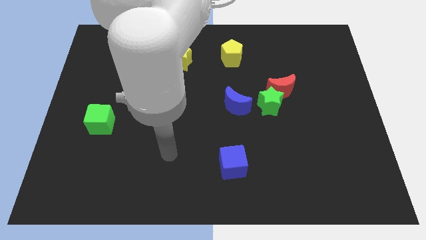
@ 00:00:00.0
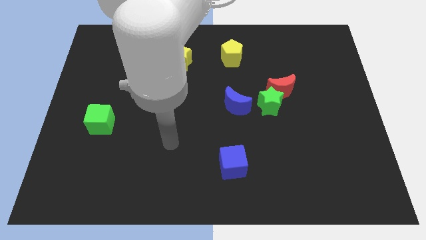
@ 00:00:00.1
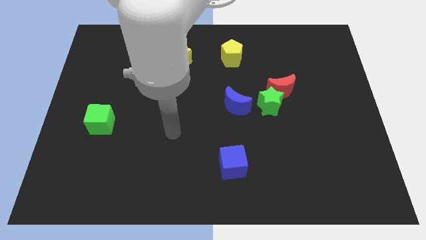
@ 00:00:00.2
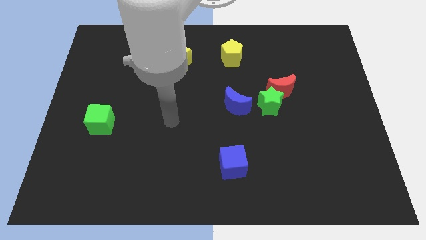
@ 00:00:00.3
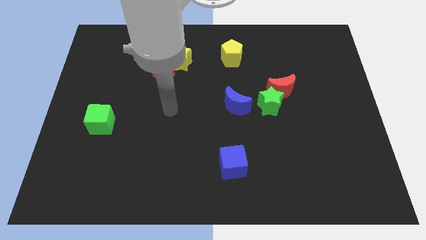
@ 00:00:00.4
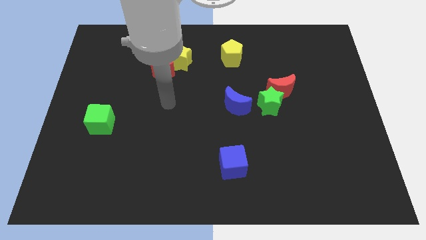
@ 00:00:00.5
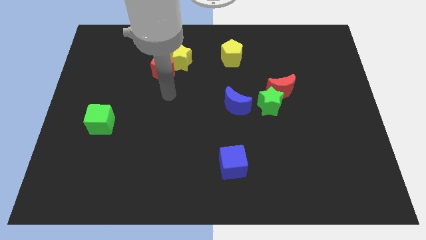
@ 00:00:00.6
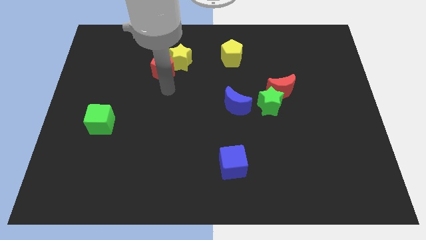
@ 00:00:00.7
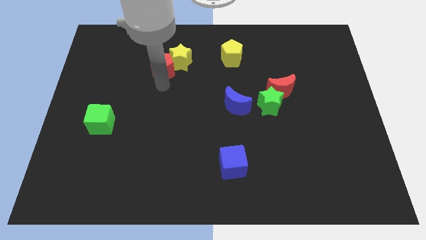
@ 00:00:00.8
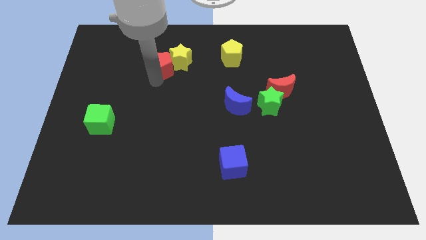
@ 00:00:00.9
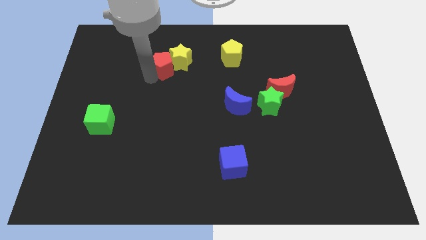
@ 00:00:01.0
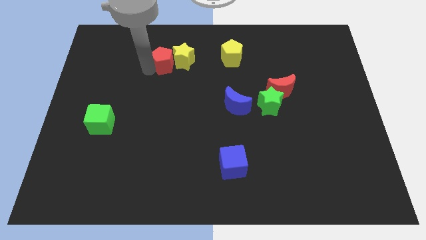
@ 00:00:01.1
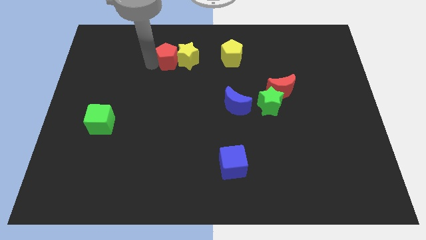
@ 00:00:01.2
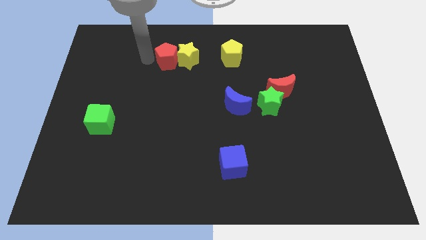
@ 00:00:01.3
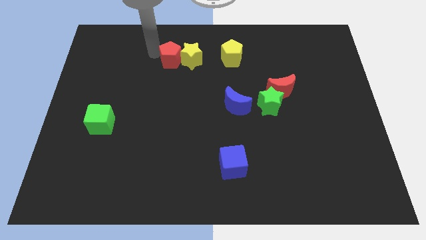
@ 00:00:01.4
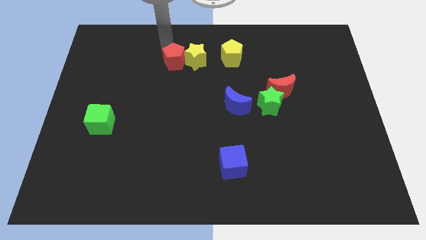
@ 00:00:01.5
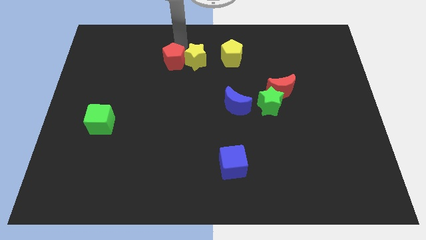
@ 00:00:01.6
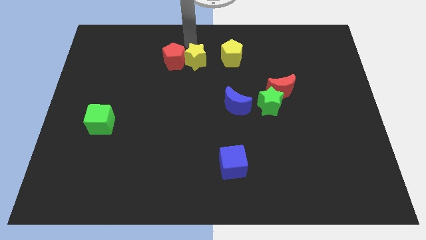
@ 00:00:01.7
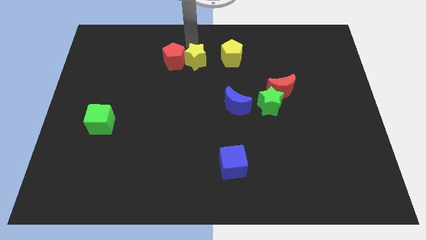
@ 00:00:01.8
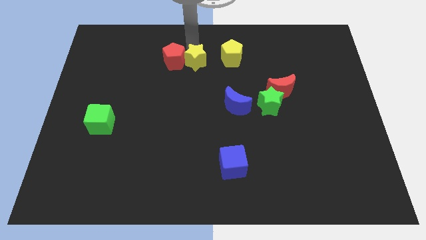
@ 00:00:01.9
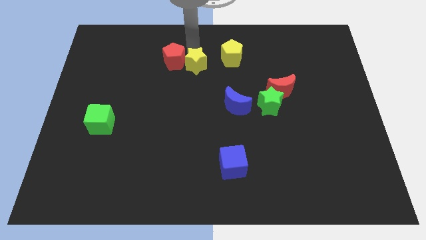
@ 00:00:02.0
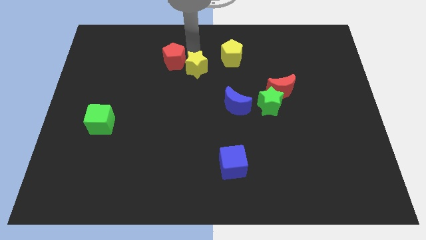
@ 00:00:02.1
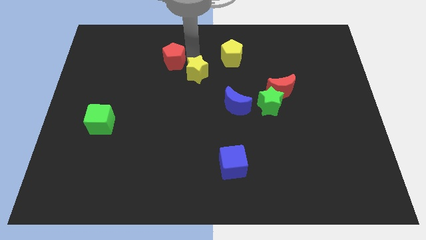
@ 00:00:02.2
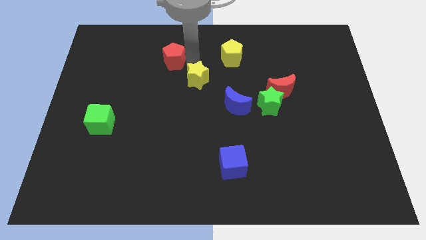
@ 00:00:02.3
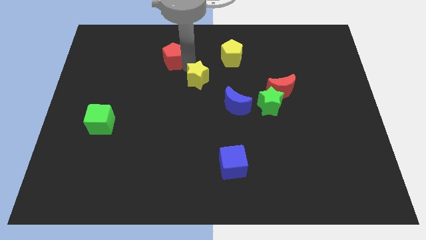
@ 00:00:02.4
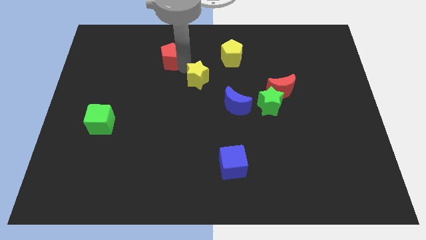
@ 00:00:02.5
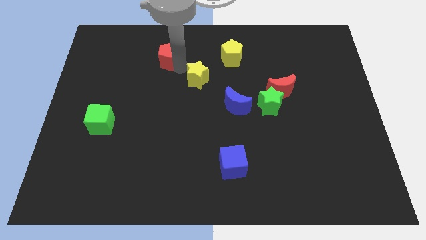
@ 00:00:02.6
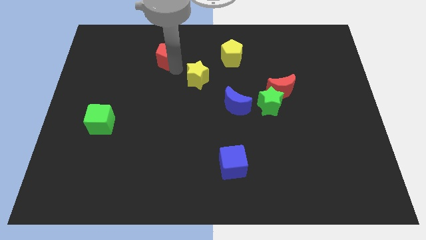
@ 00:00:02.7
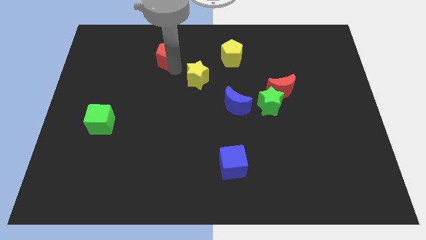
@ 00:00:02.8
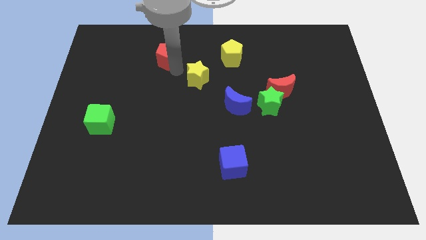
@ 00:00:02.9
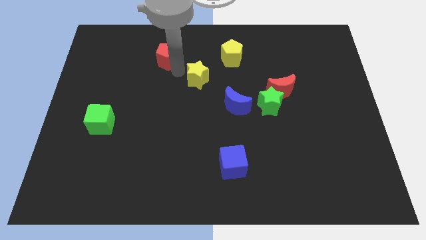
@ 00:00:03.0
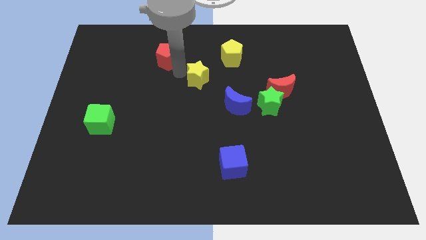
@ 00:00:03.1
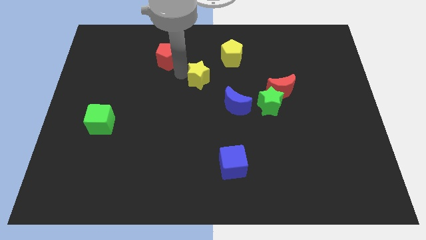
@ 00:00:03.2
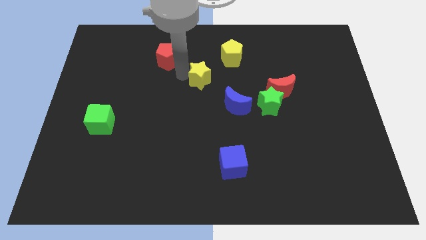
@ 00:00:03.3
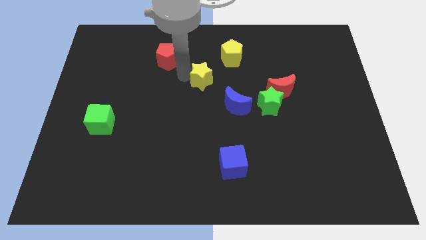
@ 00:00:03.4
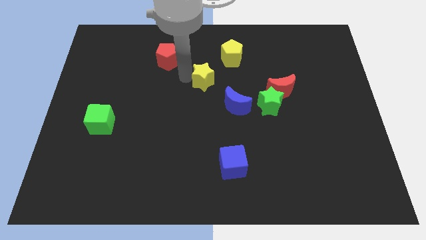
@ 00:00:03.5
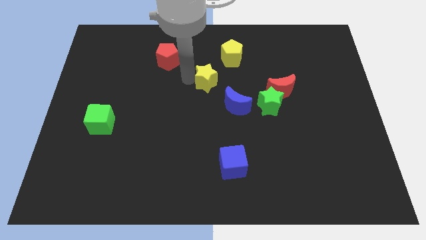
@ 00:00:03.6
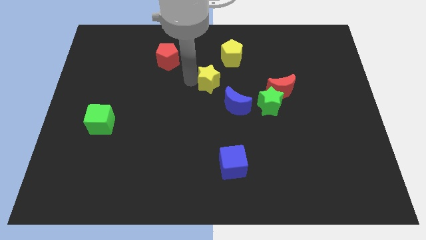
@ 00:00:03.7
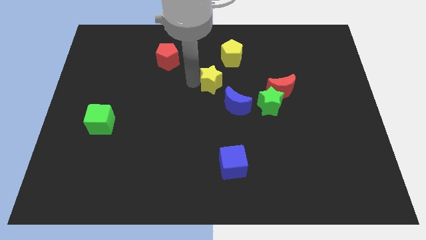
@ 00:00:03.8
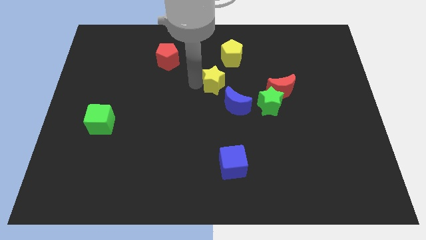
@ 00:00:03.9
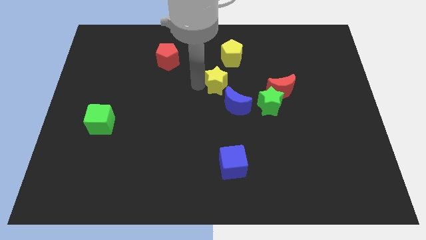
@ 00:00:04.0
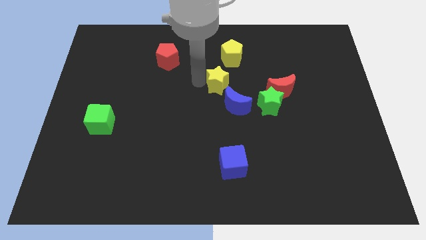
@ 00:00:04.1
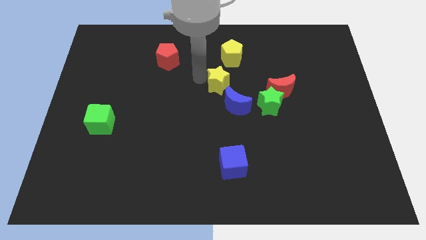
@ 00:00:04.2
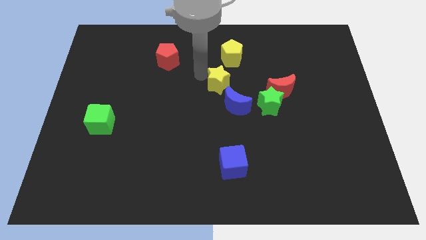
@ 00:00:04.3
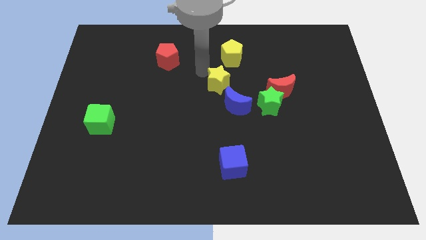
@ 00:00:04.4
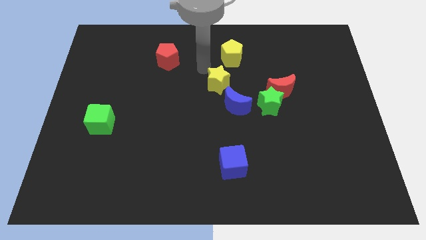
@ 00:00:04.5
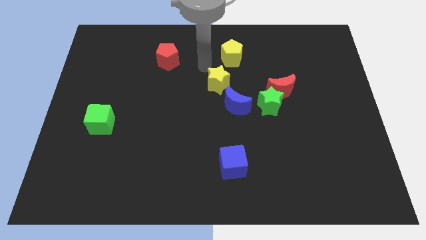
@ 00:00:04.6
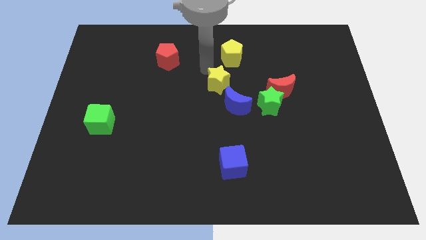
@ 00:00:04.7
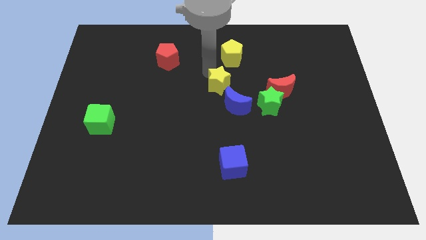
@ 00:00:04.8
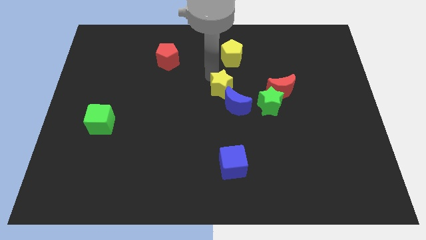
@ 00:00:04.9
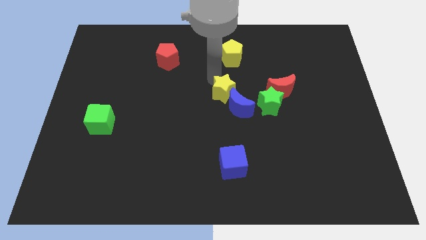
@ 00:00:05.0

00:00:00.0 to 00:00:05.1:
put the yellow star close to the blue moon

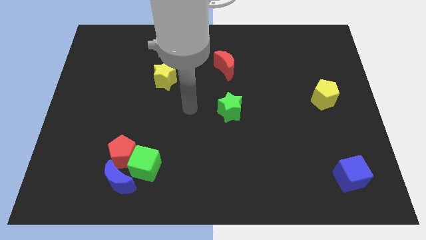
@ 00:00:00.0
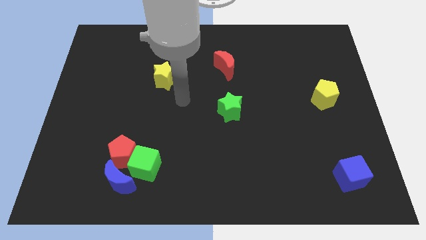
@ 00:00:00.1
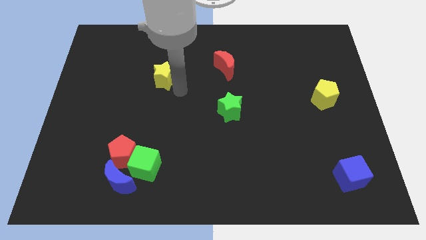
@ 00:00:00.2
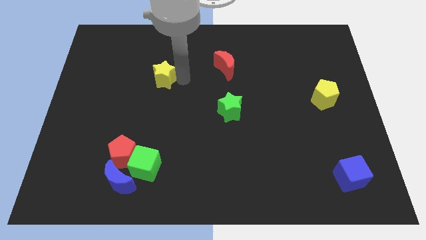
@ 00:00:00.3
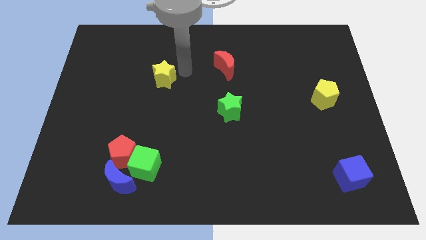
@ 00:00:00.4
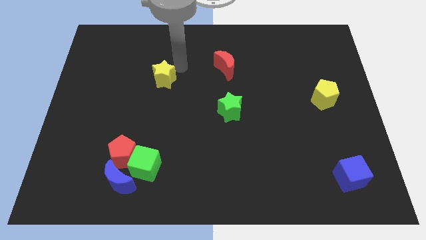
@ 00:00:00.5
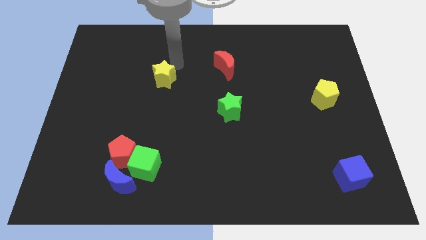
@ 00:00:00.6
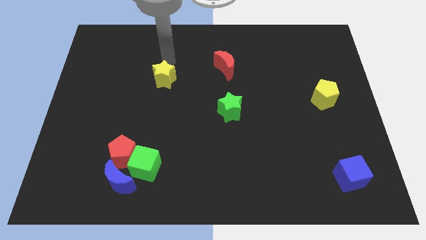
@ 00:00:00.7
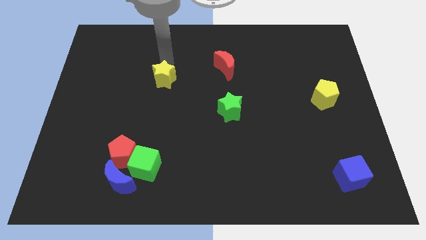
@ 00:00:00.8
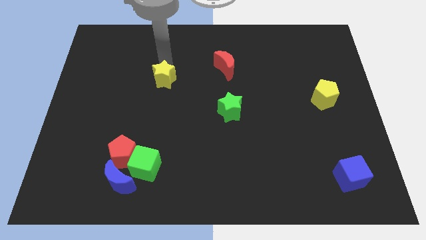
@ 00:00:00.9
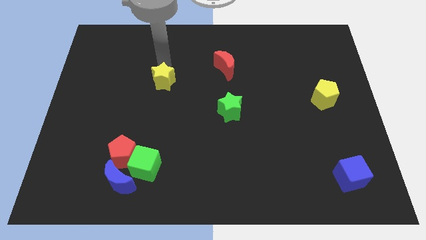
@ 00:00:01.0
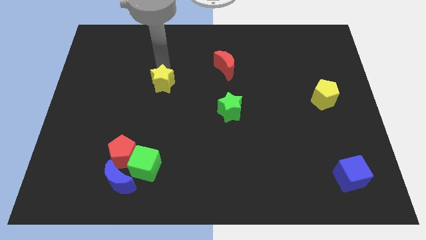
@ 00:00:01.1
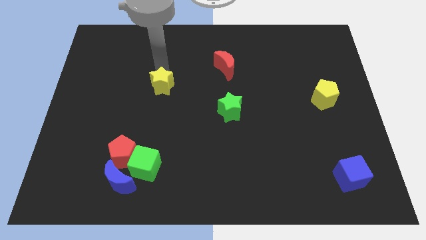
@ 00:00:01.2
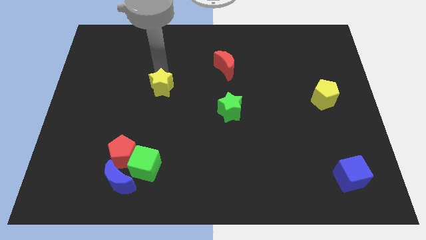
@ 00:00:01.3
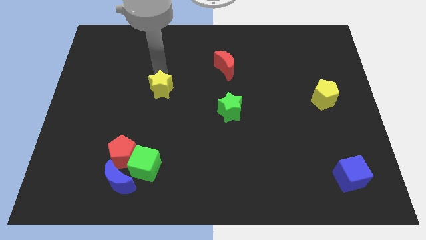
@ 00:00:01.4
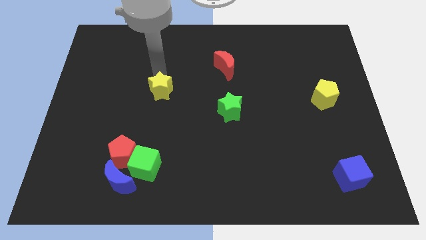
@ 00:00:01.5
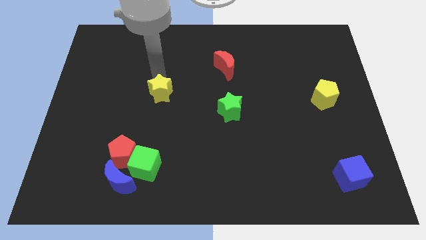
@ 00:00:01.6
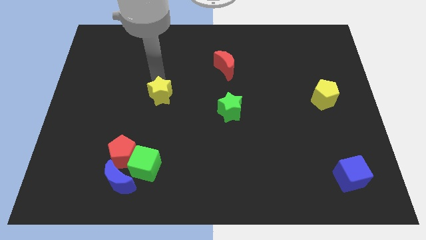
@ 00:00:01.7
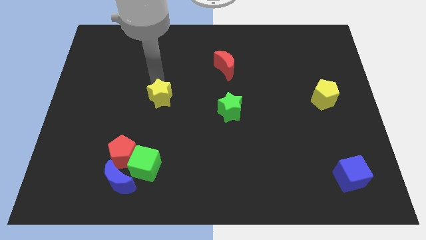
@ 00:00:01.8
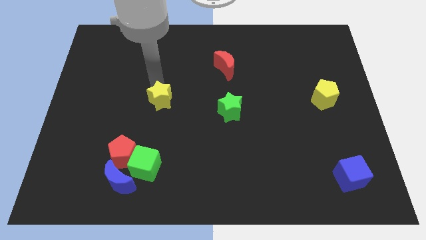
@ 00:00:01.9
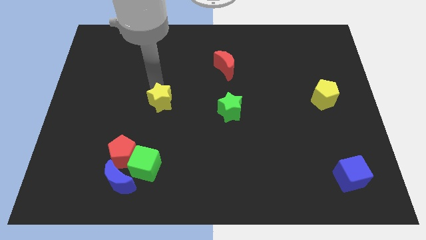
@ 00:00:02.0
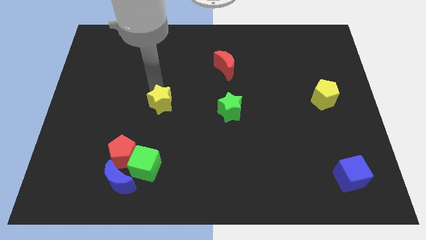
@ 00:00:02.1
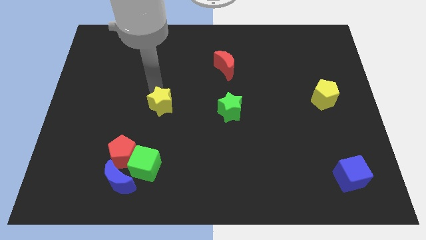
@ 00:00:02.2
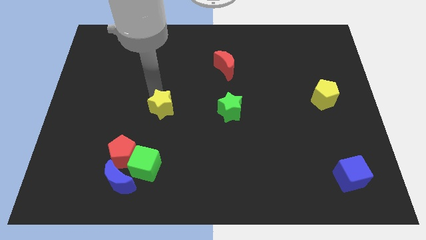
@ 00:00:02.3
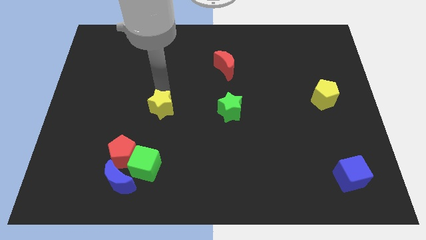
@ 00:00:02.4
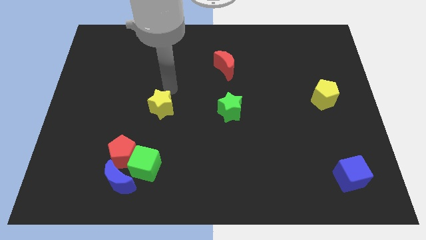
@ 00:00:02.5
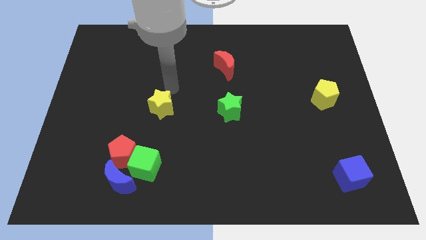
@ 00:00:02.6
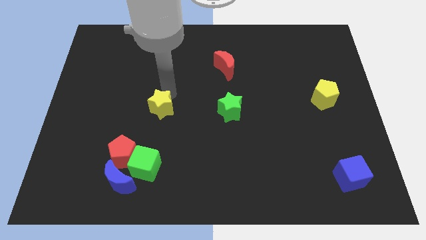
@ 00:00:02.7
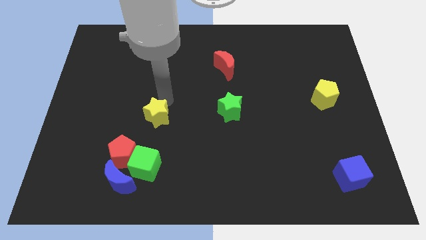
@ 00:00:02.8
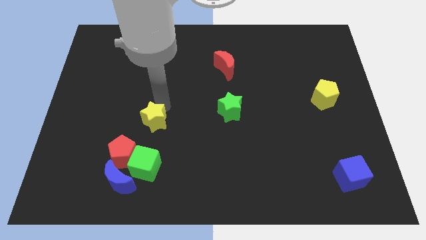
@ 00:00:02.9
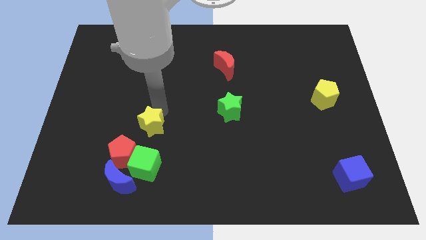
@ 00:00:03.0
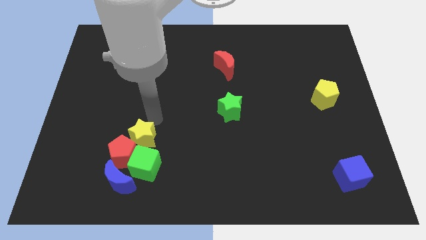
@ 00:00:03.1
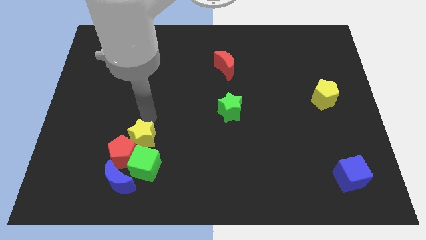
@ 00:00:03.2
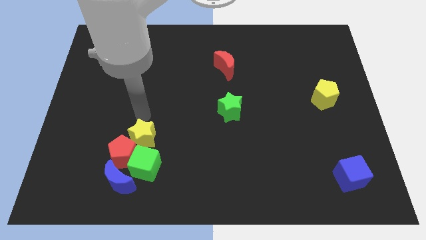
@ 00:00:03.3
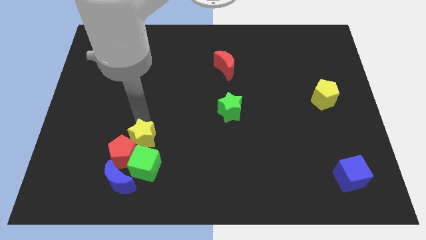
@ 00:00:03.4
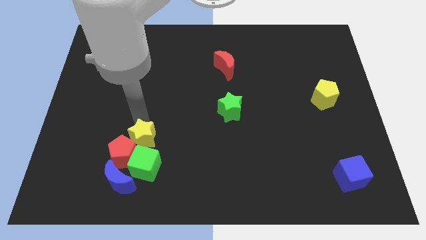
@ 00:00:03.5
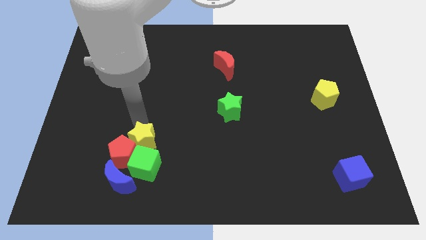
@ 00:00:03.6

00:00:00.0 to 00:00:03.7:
slide the yellow star next to the green cube
